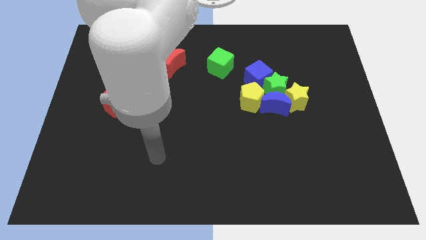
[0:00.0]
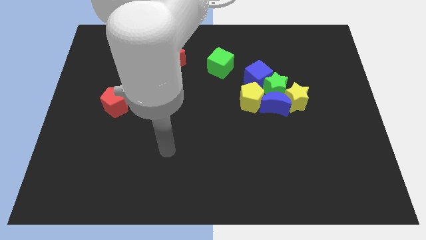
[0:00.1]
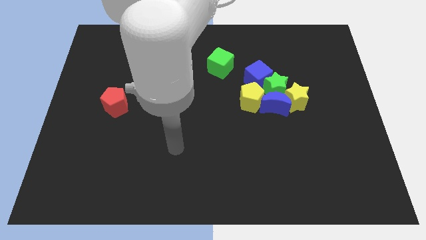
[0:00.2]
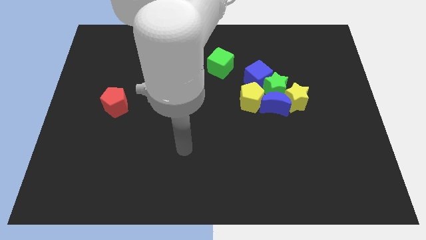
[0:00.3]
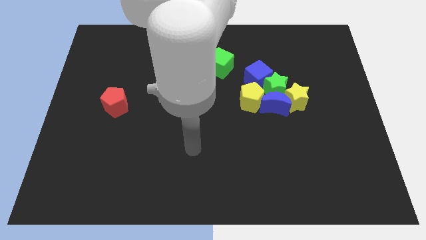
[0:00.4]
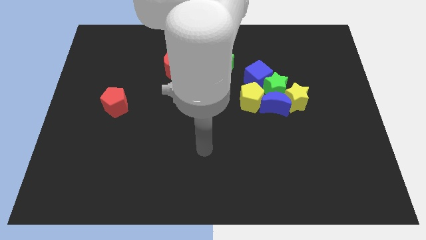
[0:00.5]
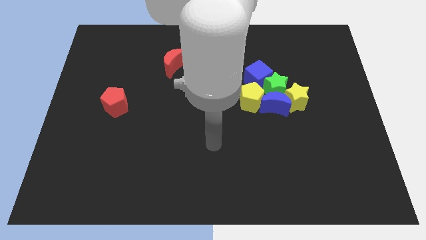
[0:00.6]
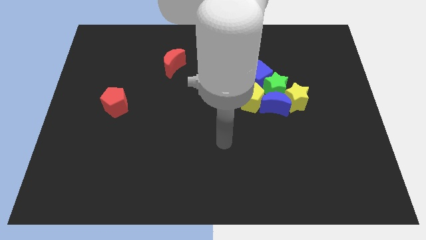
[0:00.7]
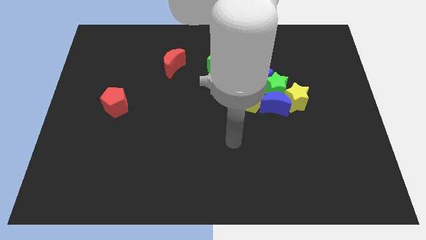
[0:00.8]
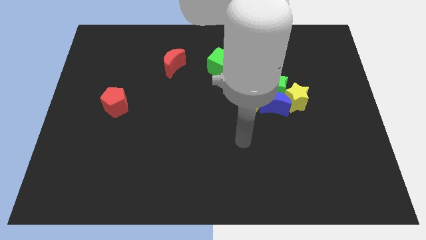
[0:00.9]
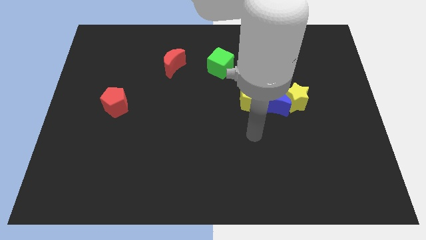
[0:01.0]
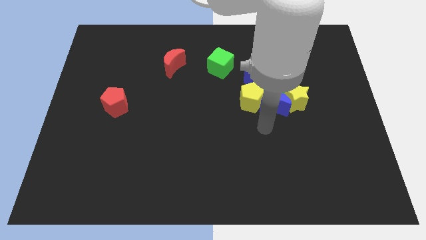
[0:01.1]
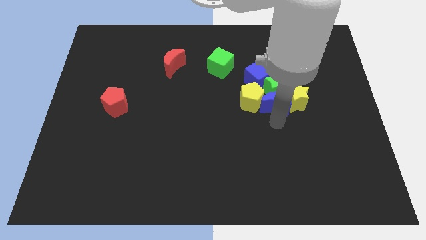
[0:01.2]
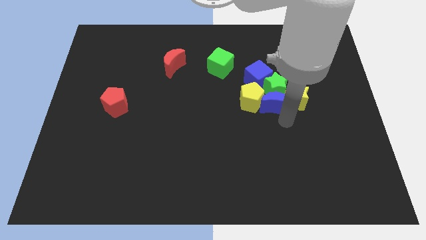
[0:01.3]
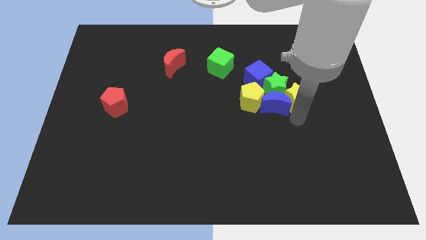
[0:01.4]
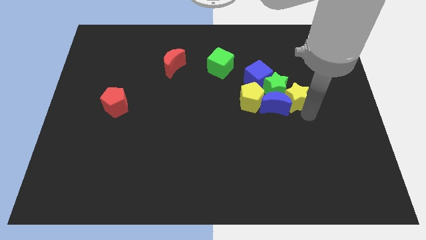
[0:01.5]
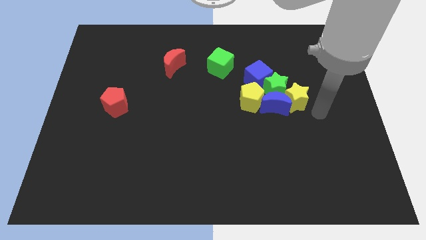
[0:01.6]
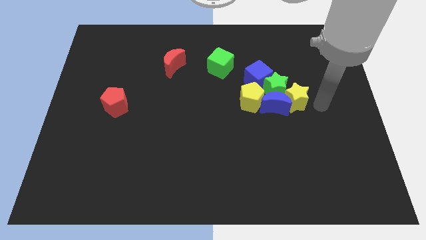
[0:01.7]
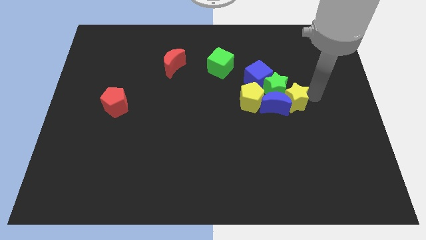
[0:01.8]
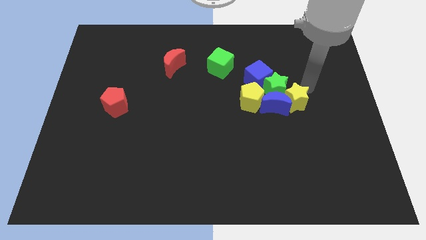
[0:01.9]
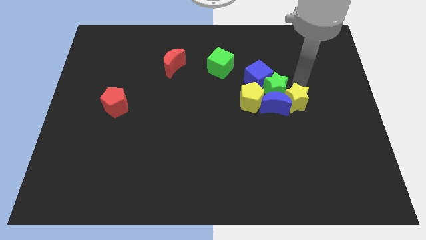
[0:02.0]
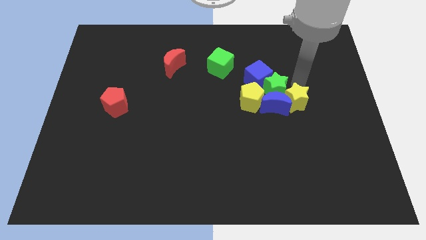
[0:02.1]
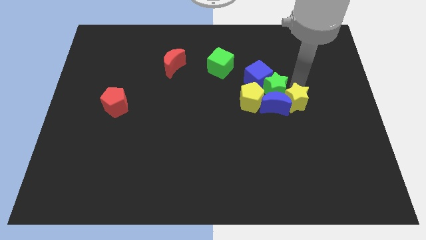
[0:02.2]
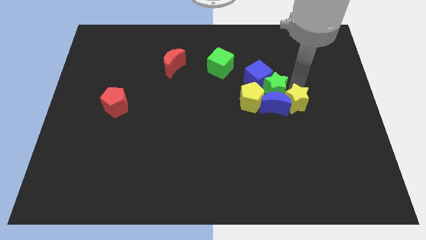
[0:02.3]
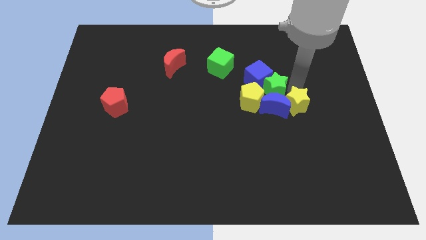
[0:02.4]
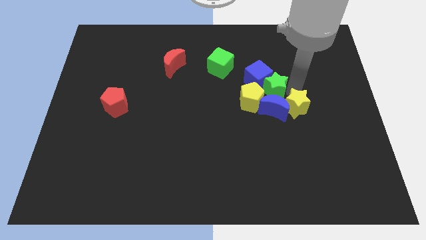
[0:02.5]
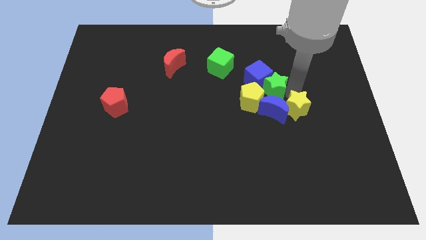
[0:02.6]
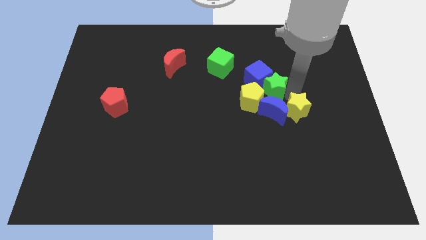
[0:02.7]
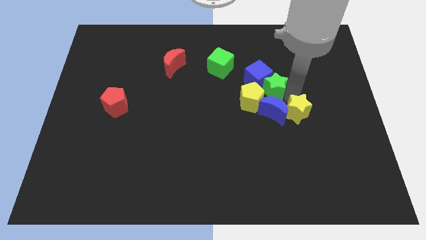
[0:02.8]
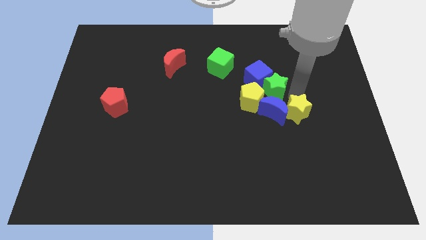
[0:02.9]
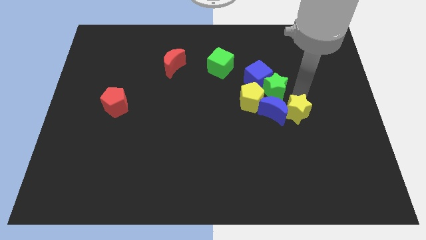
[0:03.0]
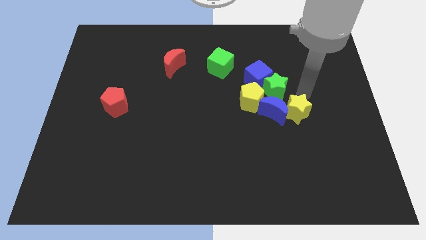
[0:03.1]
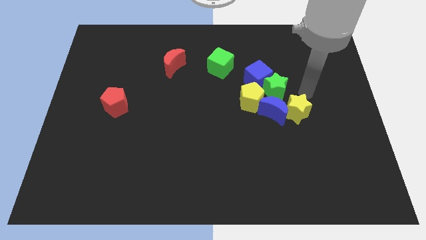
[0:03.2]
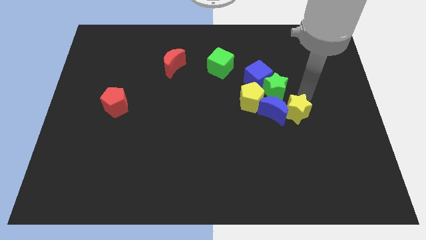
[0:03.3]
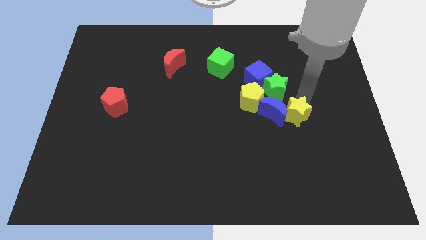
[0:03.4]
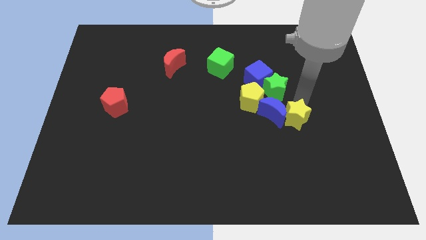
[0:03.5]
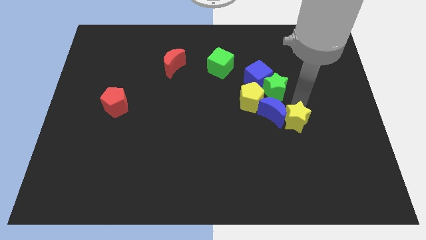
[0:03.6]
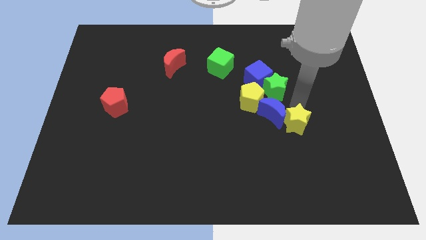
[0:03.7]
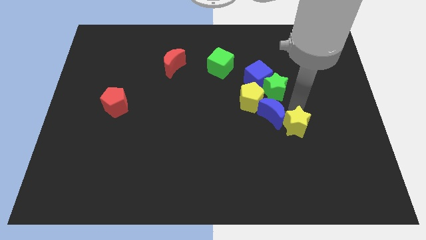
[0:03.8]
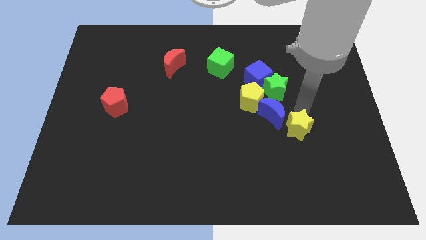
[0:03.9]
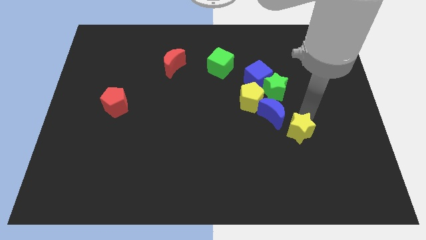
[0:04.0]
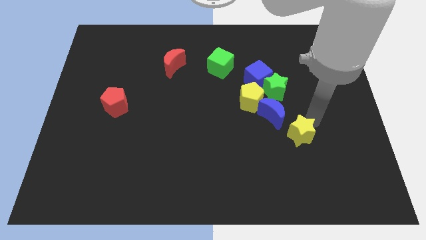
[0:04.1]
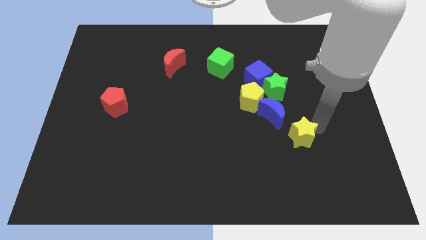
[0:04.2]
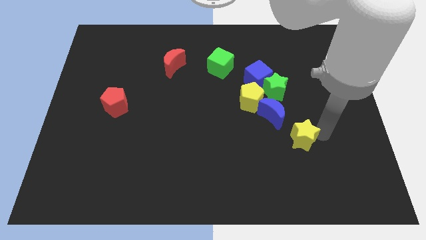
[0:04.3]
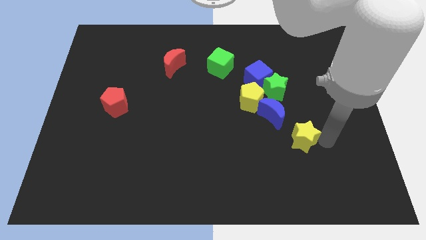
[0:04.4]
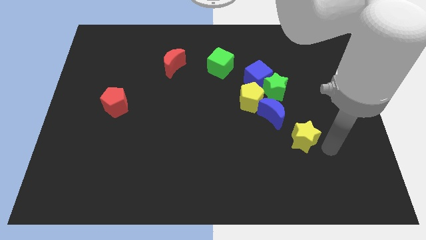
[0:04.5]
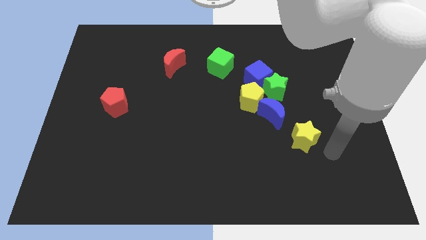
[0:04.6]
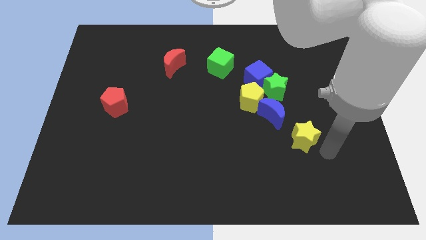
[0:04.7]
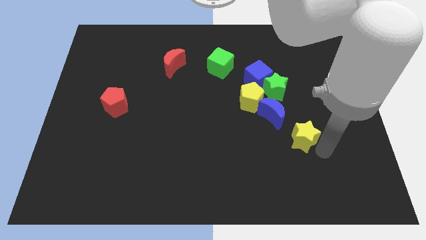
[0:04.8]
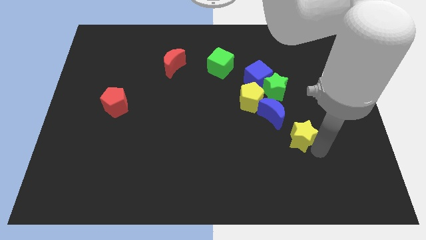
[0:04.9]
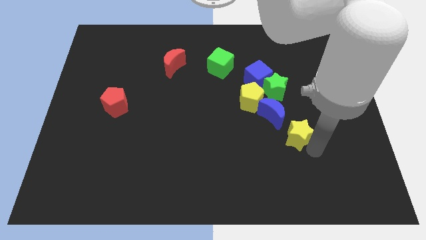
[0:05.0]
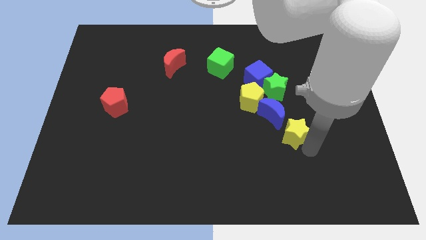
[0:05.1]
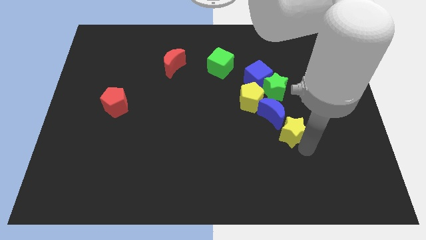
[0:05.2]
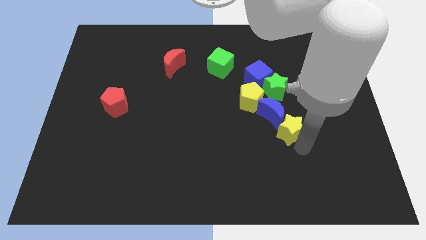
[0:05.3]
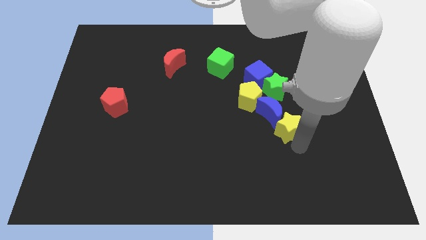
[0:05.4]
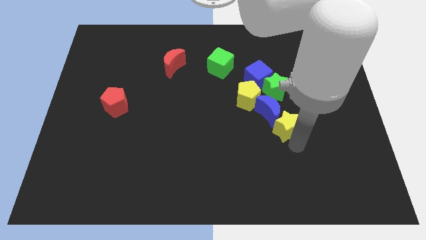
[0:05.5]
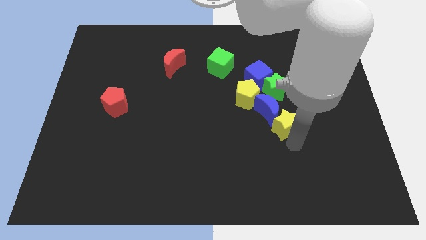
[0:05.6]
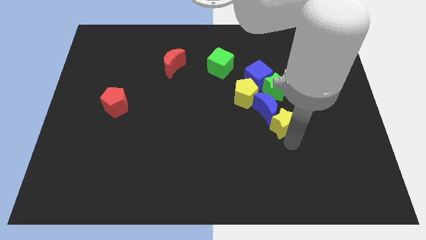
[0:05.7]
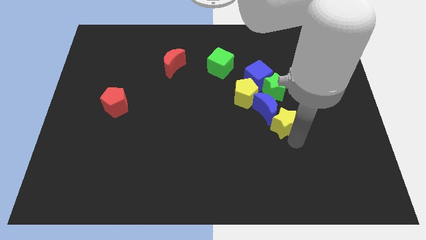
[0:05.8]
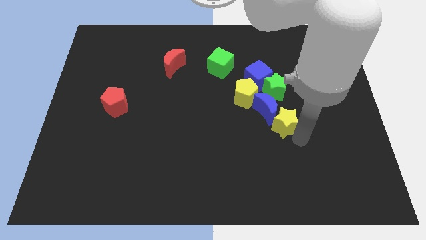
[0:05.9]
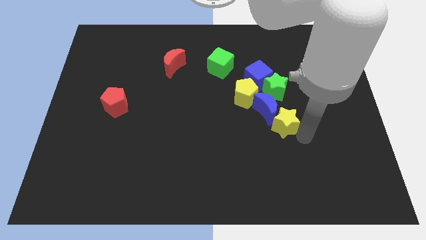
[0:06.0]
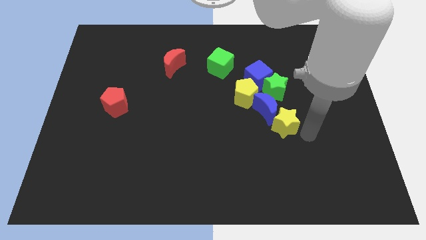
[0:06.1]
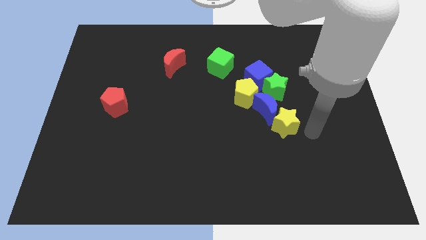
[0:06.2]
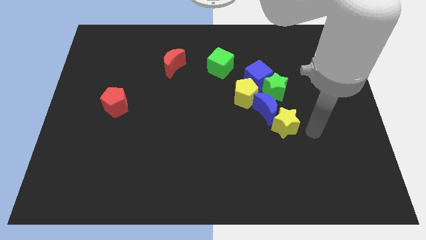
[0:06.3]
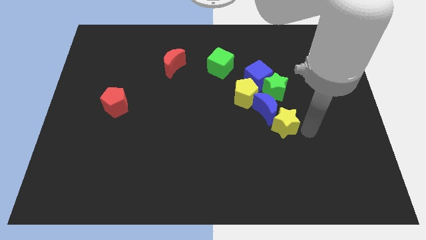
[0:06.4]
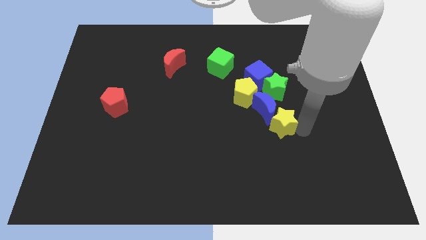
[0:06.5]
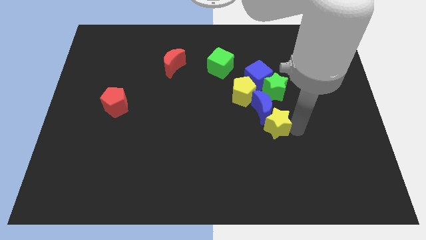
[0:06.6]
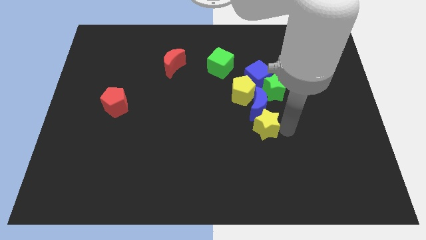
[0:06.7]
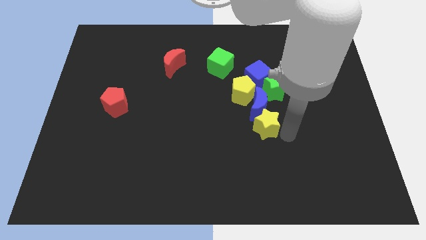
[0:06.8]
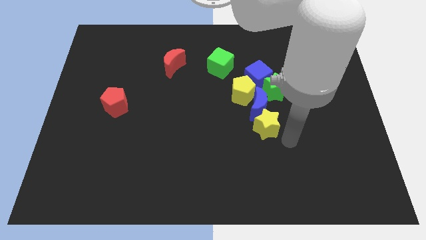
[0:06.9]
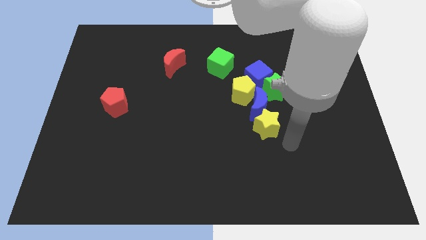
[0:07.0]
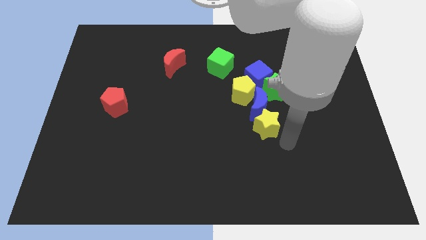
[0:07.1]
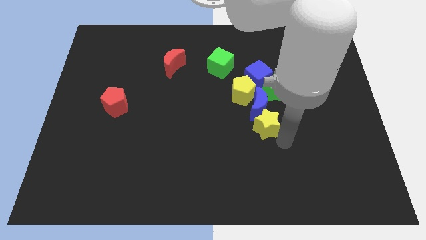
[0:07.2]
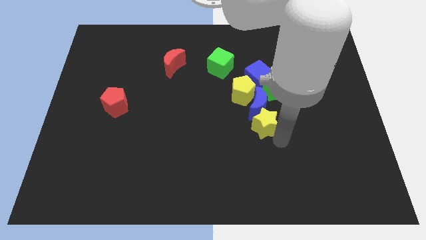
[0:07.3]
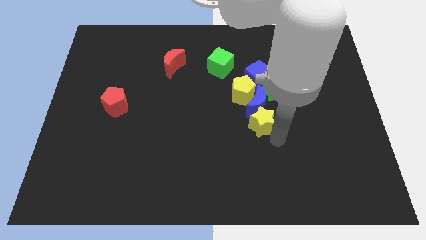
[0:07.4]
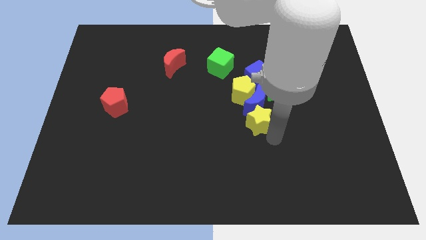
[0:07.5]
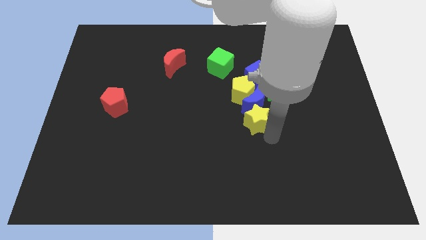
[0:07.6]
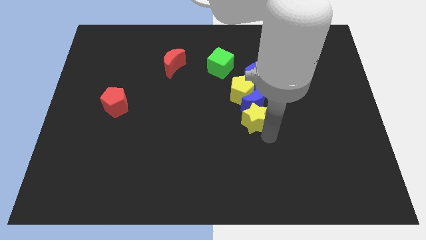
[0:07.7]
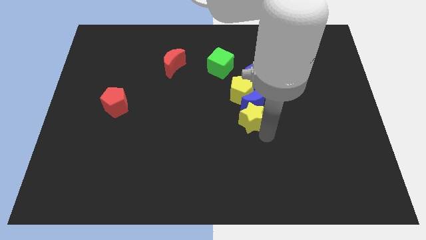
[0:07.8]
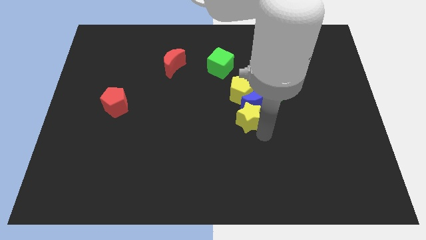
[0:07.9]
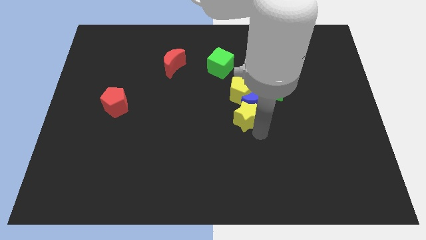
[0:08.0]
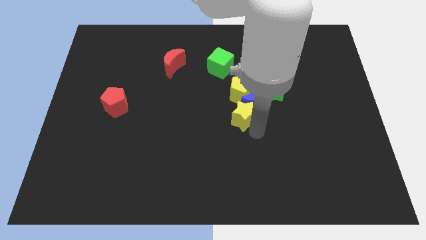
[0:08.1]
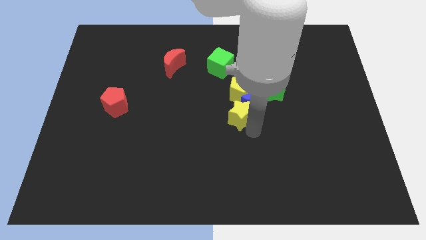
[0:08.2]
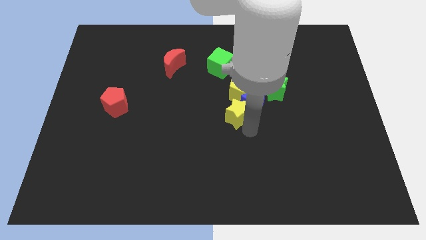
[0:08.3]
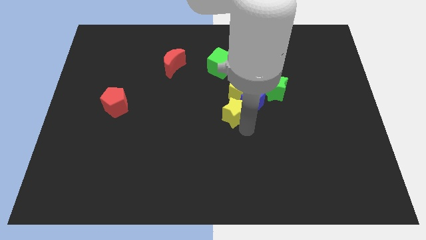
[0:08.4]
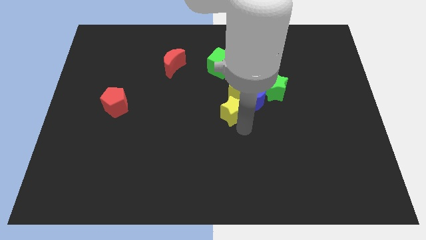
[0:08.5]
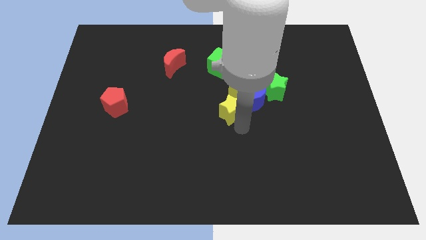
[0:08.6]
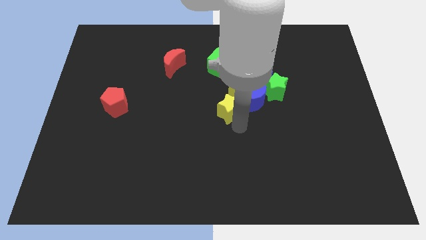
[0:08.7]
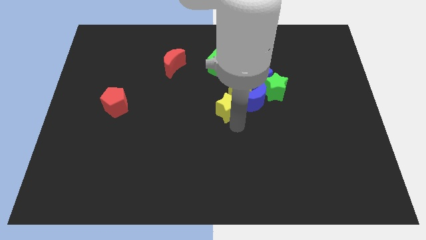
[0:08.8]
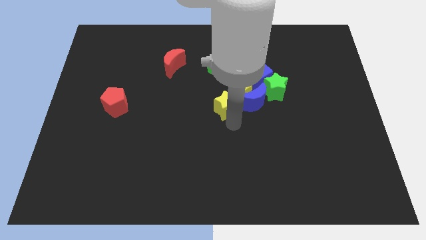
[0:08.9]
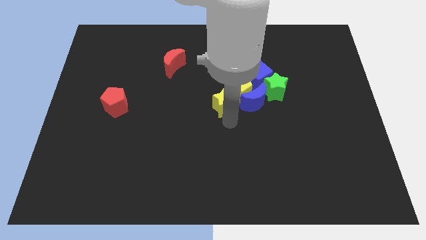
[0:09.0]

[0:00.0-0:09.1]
push the yellow star to the left of the yellow pentagon
